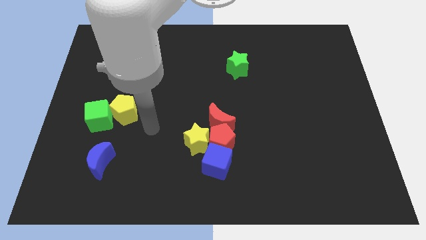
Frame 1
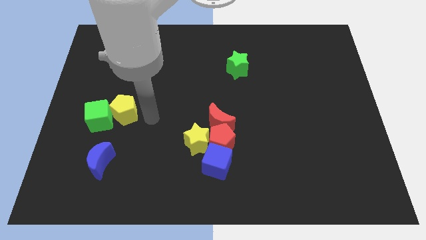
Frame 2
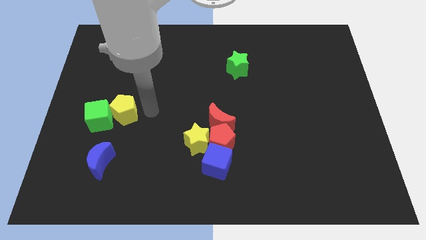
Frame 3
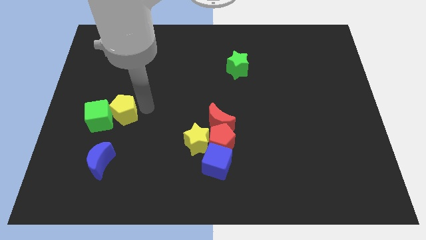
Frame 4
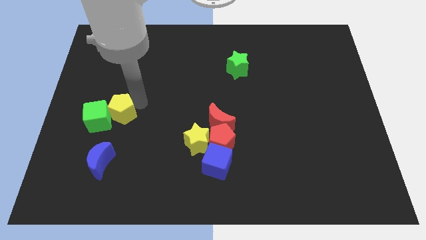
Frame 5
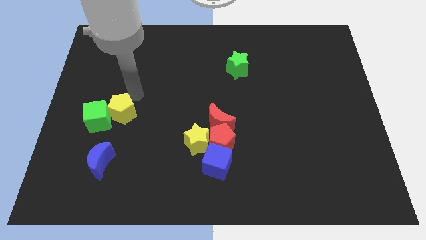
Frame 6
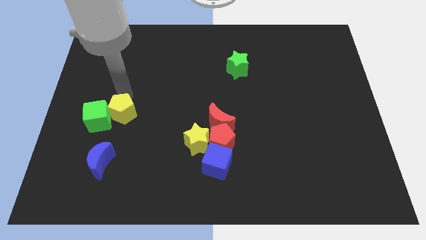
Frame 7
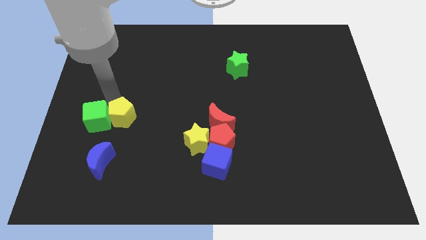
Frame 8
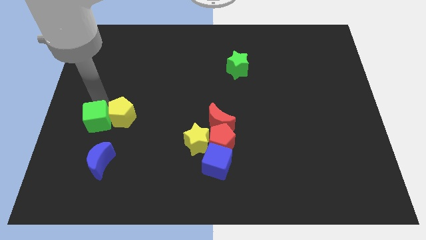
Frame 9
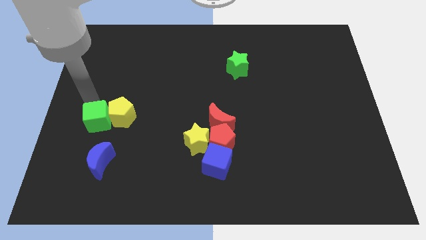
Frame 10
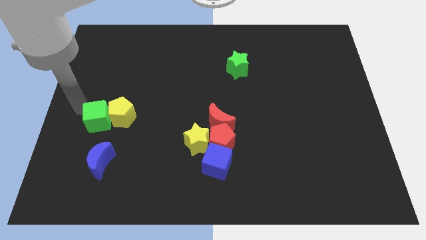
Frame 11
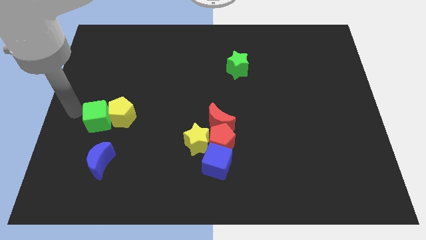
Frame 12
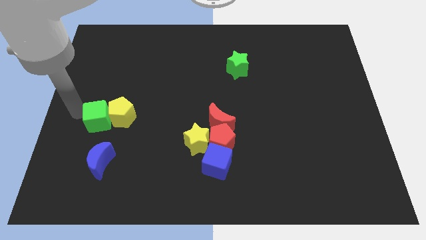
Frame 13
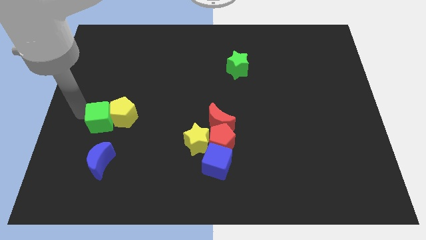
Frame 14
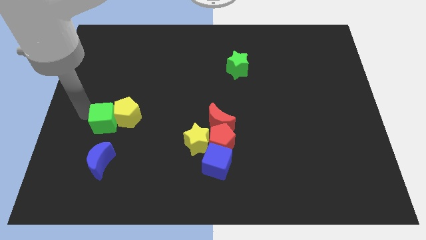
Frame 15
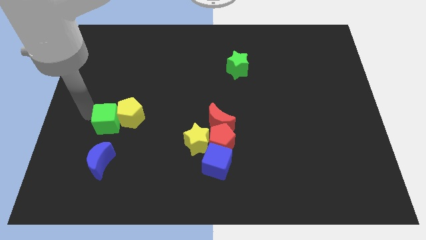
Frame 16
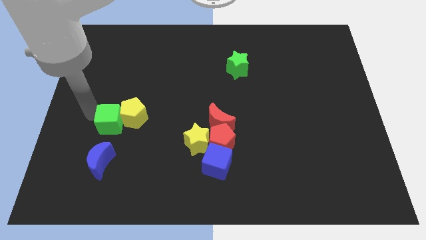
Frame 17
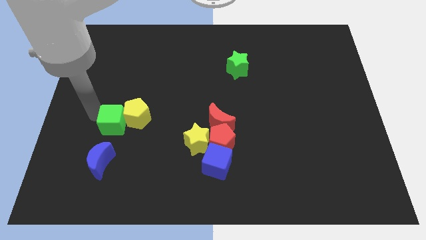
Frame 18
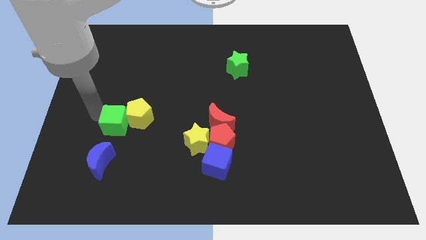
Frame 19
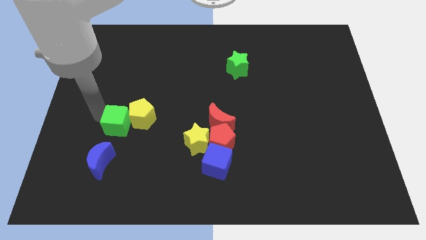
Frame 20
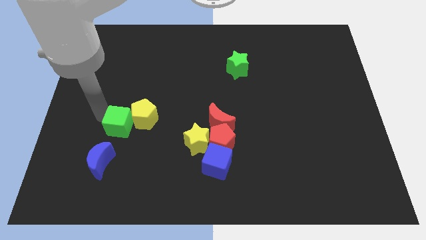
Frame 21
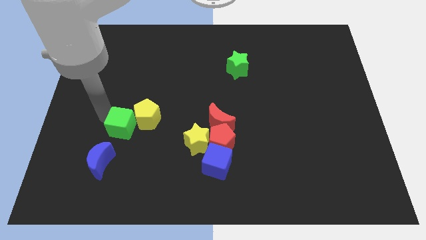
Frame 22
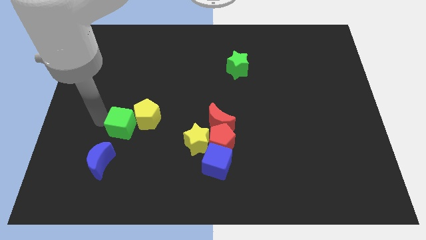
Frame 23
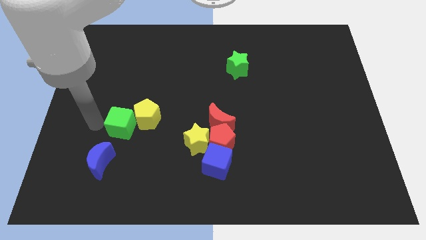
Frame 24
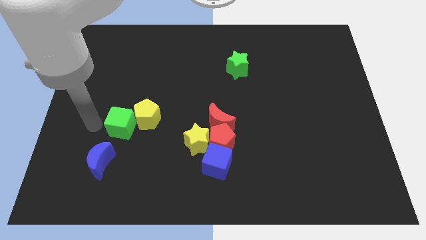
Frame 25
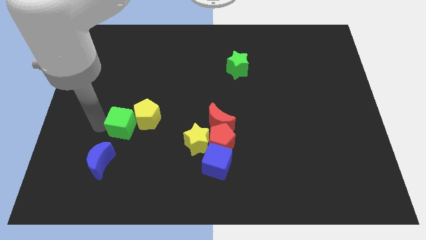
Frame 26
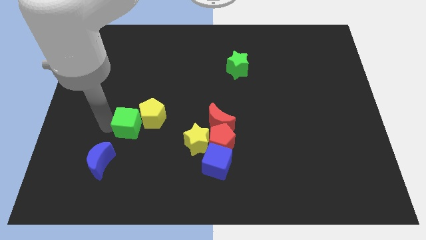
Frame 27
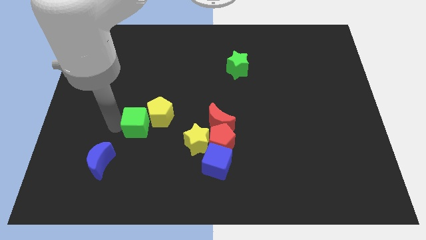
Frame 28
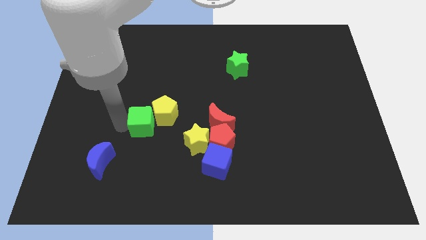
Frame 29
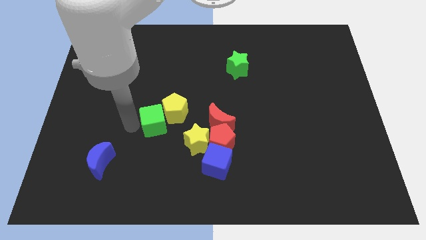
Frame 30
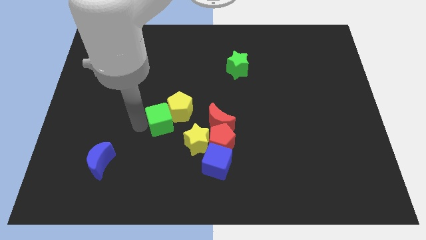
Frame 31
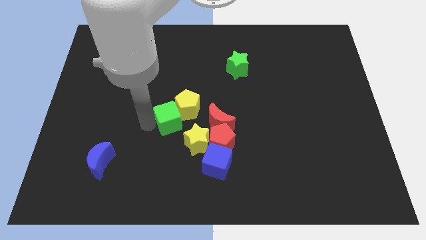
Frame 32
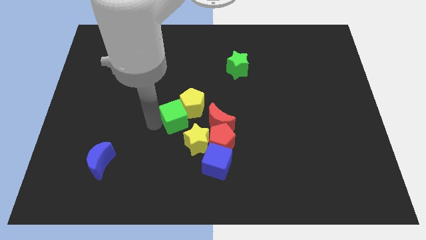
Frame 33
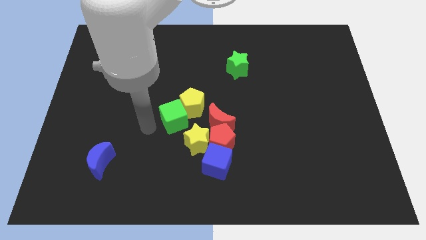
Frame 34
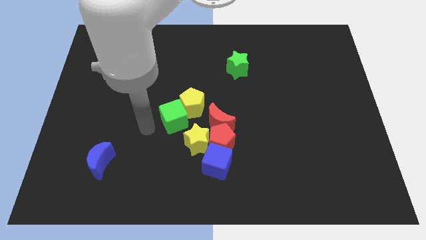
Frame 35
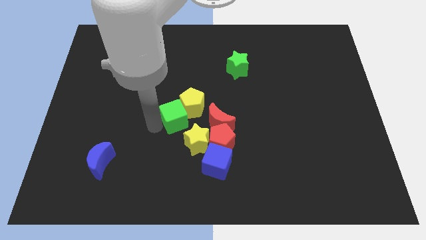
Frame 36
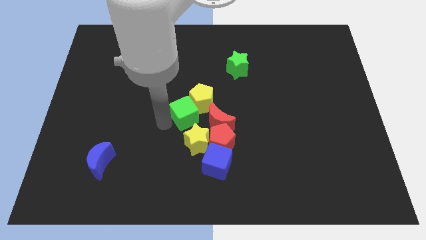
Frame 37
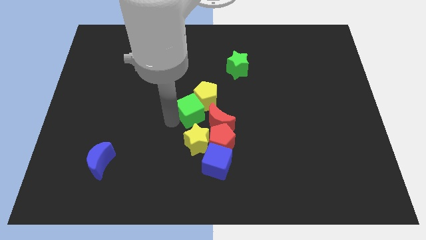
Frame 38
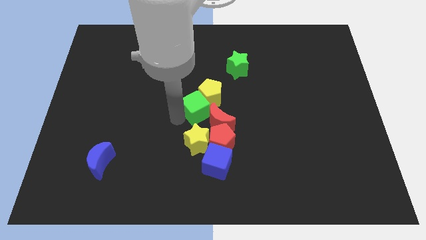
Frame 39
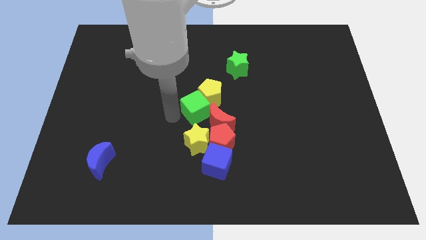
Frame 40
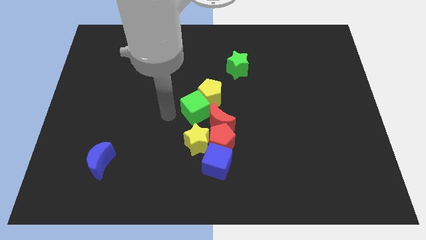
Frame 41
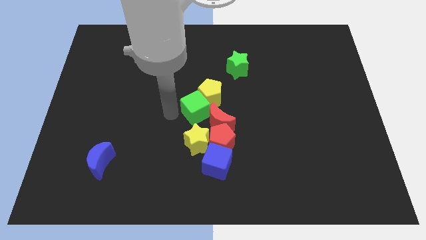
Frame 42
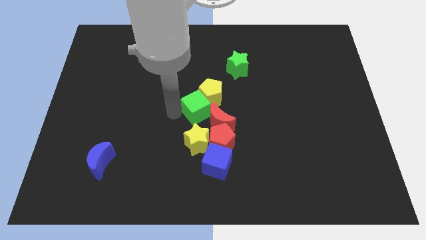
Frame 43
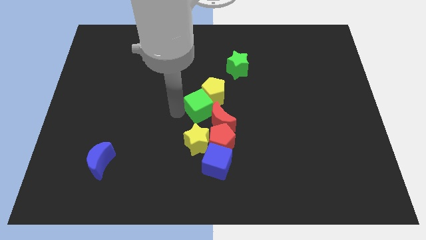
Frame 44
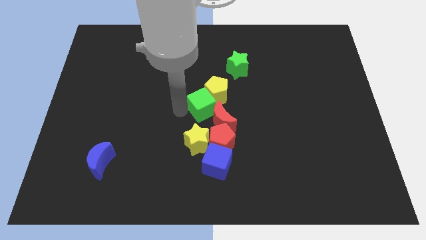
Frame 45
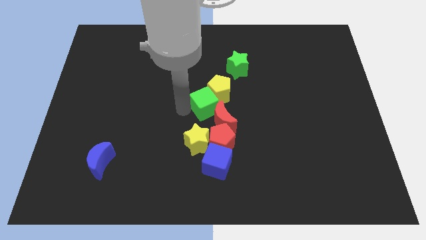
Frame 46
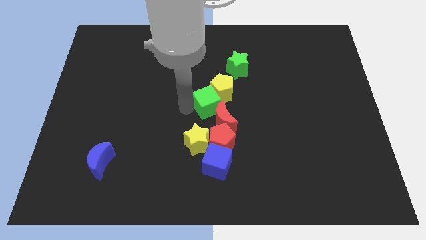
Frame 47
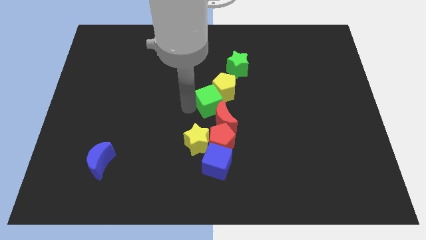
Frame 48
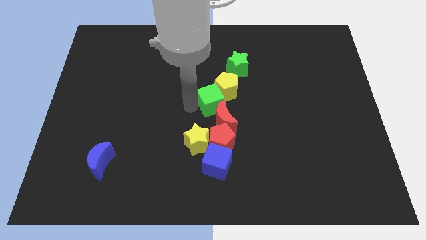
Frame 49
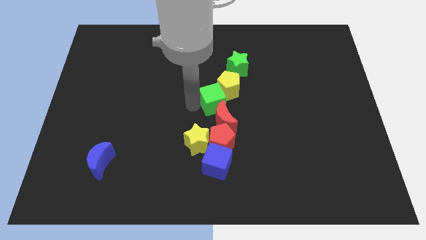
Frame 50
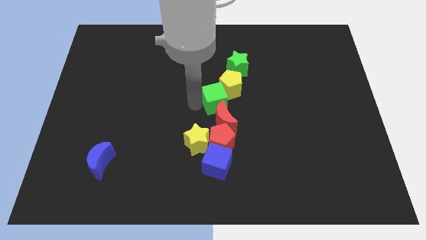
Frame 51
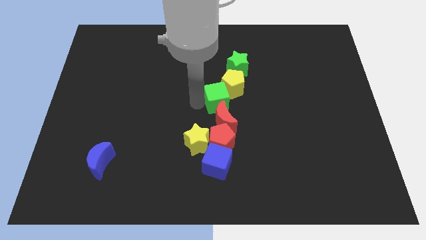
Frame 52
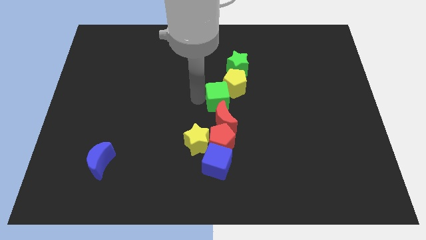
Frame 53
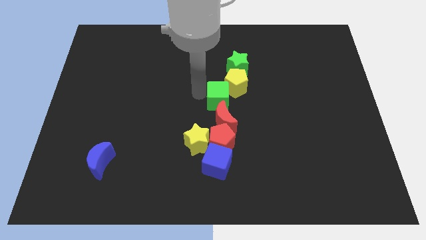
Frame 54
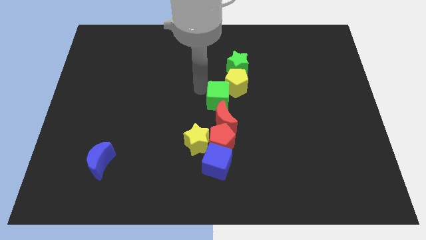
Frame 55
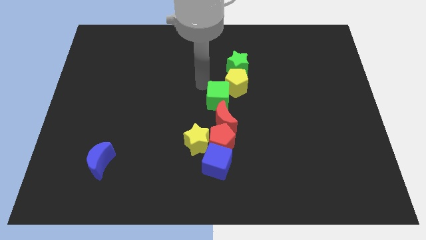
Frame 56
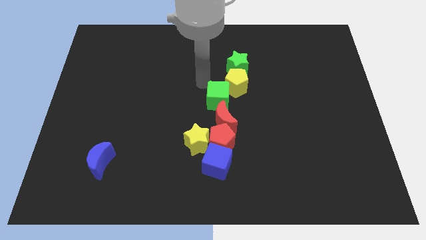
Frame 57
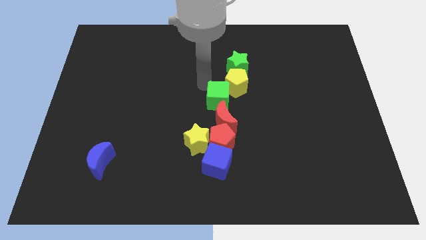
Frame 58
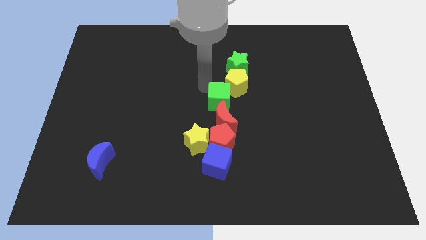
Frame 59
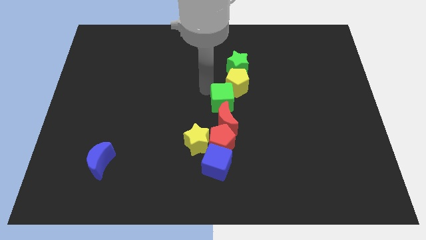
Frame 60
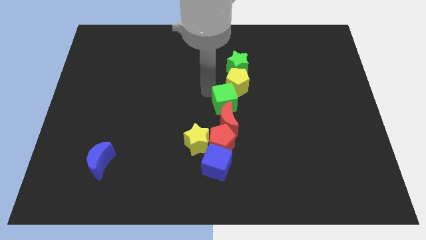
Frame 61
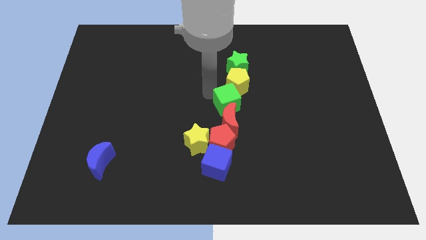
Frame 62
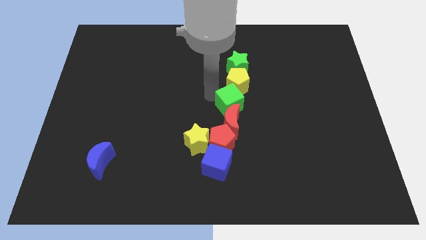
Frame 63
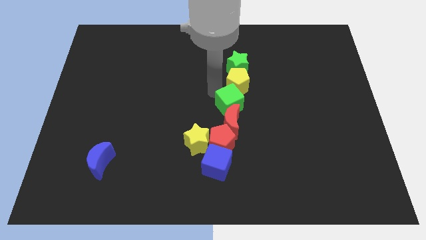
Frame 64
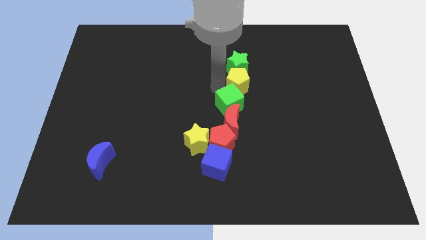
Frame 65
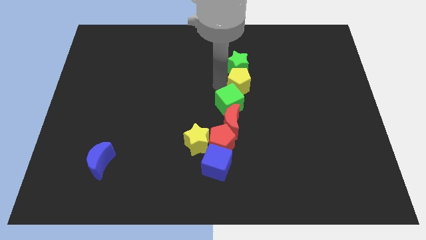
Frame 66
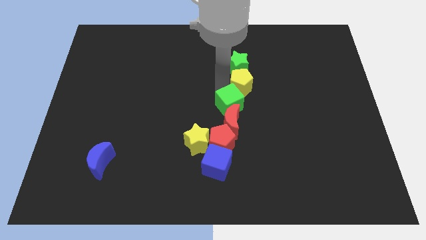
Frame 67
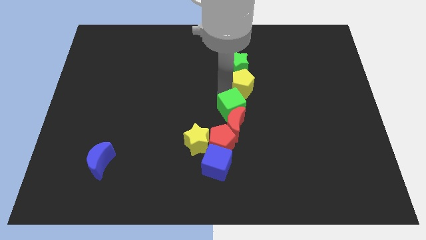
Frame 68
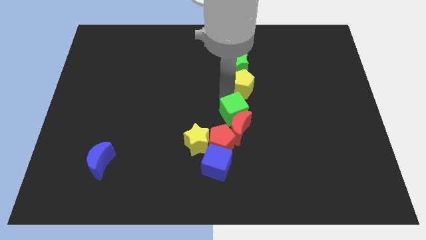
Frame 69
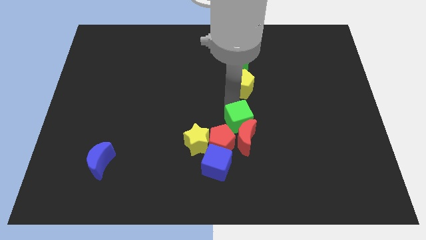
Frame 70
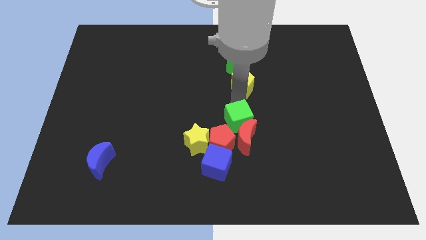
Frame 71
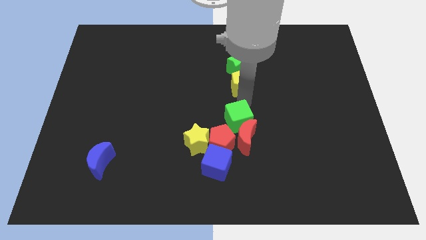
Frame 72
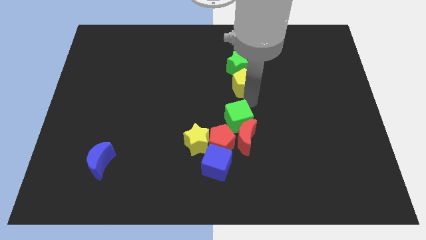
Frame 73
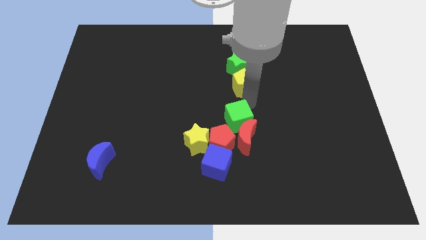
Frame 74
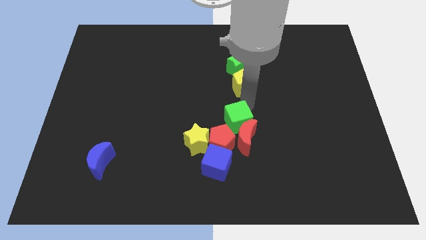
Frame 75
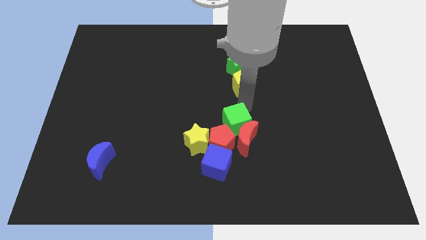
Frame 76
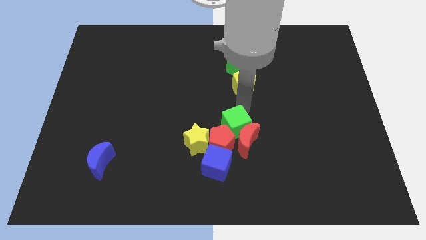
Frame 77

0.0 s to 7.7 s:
slide the green cube towards the red pentagon

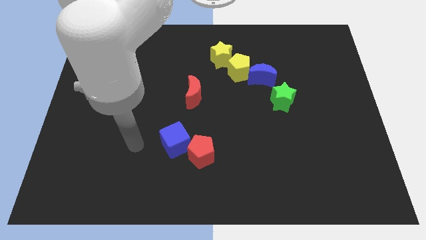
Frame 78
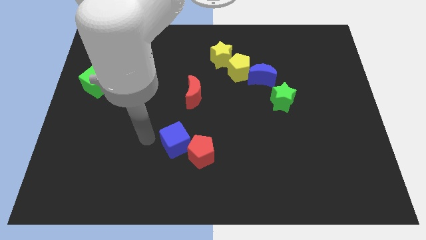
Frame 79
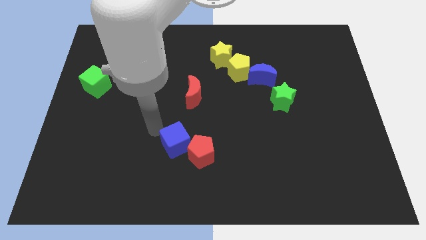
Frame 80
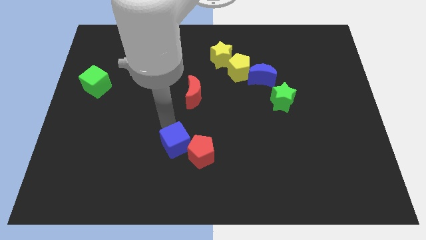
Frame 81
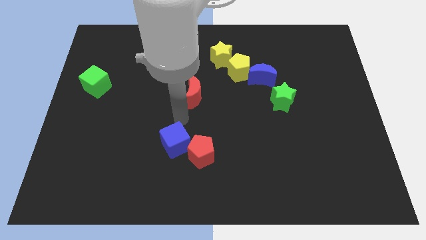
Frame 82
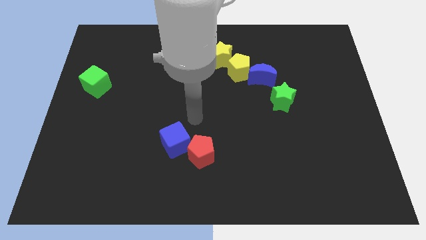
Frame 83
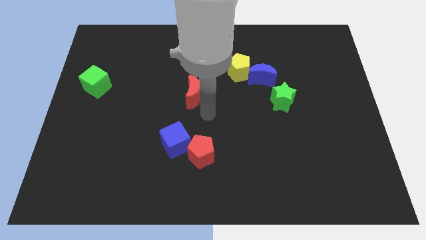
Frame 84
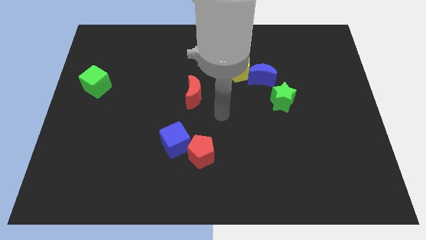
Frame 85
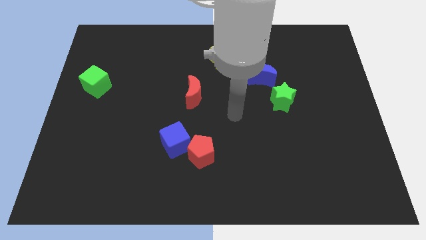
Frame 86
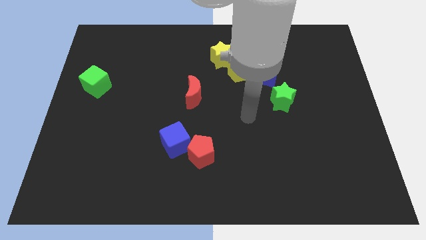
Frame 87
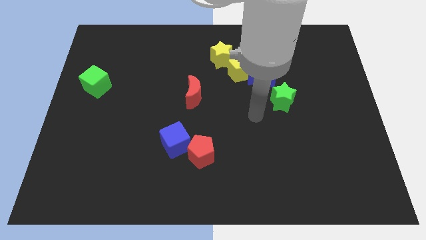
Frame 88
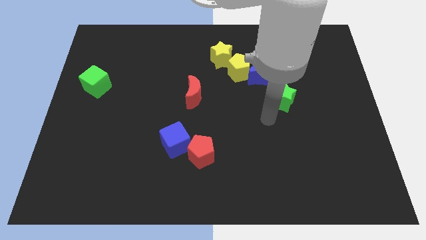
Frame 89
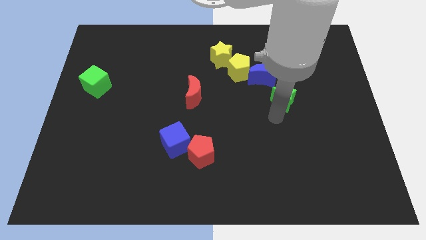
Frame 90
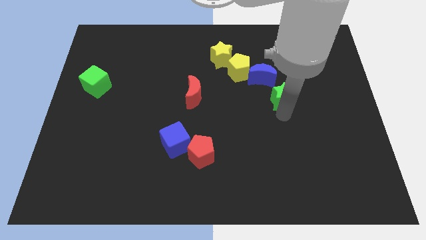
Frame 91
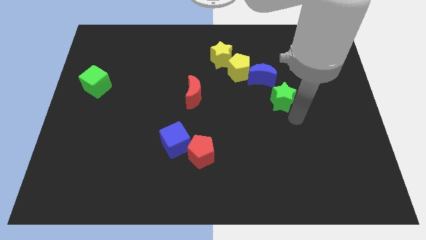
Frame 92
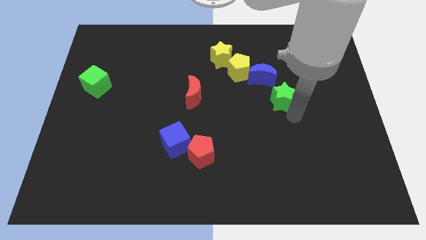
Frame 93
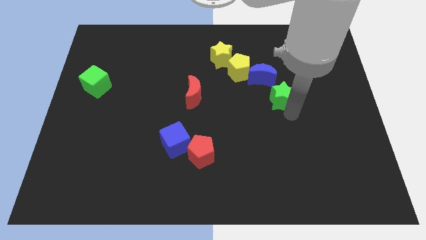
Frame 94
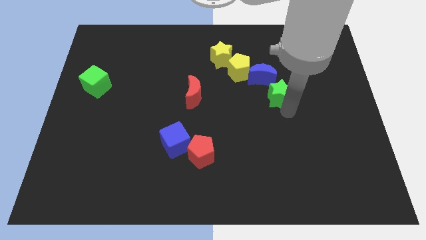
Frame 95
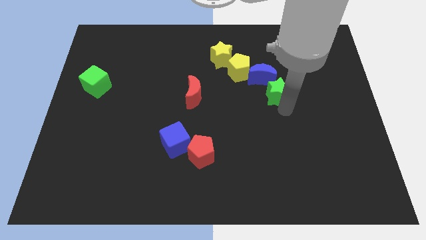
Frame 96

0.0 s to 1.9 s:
put the green star towards the blue moon
